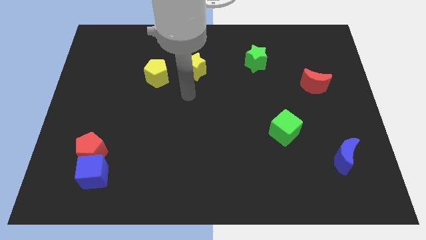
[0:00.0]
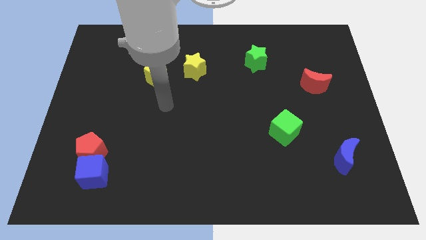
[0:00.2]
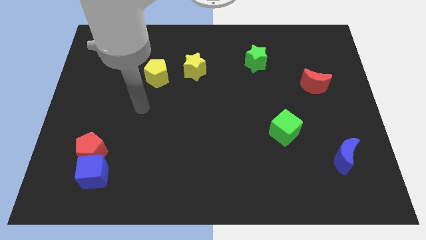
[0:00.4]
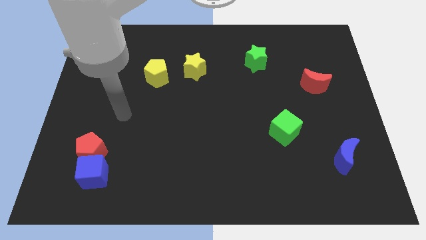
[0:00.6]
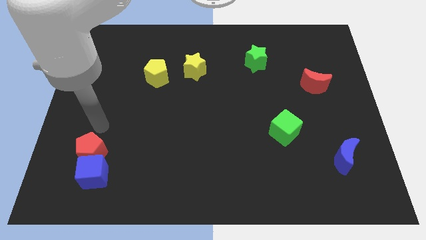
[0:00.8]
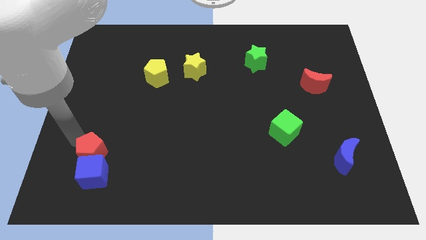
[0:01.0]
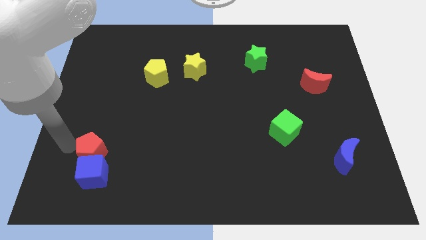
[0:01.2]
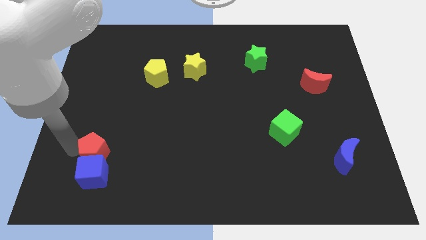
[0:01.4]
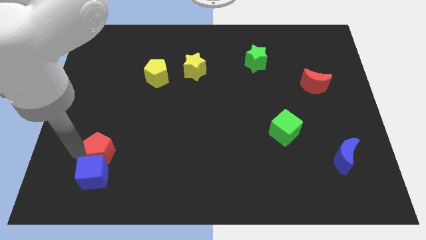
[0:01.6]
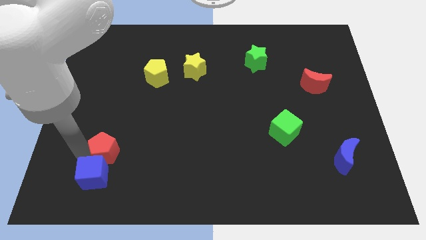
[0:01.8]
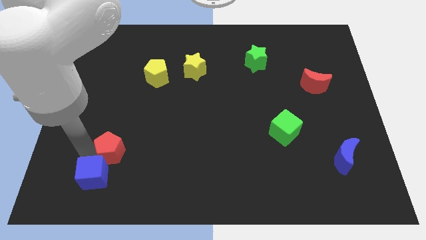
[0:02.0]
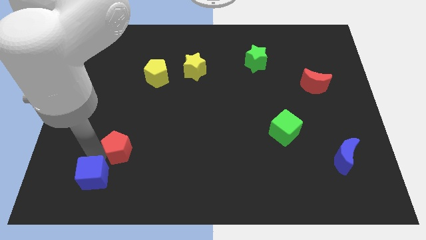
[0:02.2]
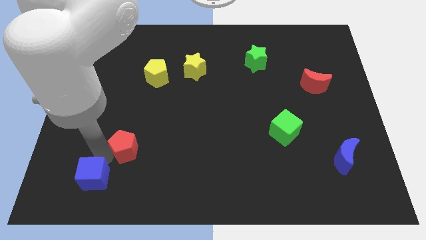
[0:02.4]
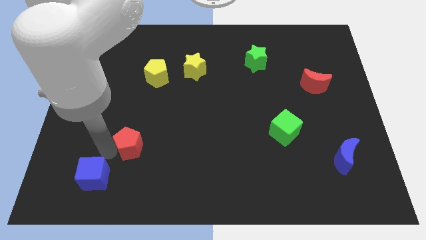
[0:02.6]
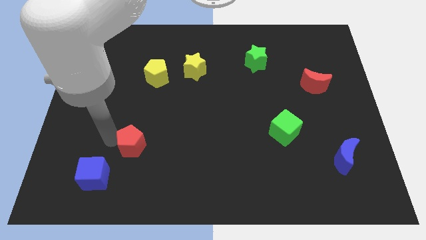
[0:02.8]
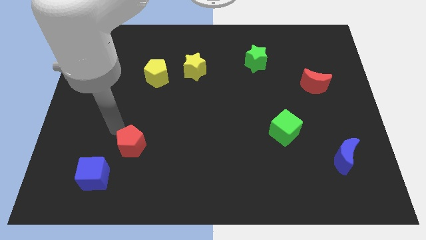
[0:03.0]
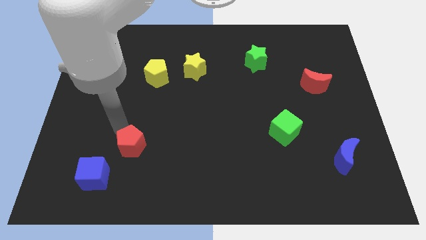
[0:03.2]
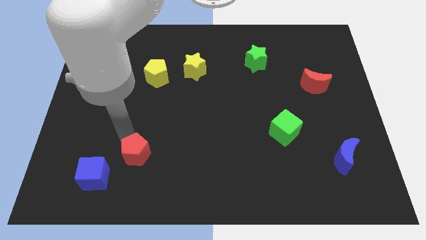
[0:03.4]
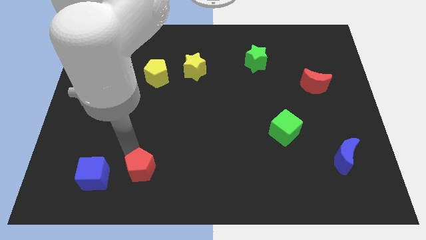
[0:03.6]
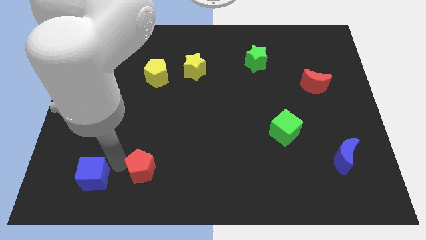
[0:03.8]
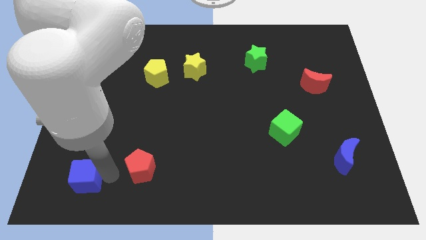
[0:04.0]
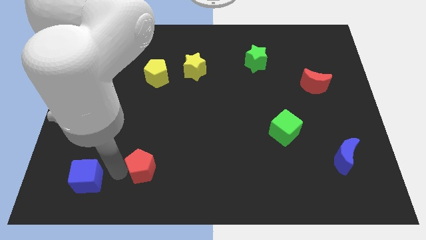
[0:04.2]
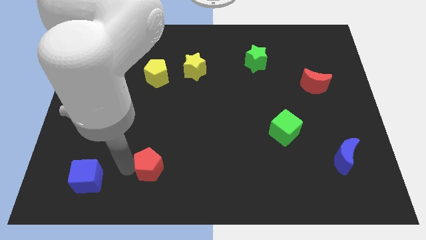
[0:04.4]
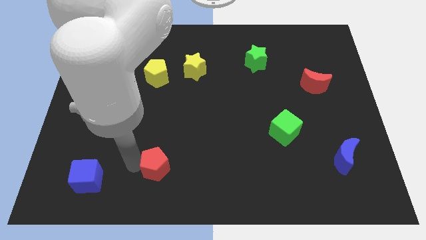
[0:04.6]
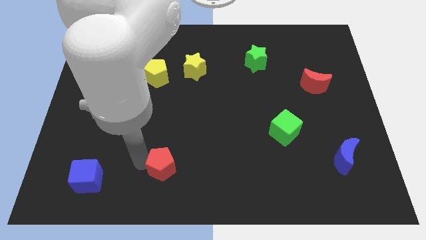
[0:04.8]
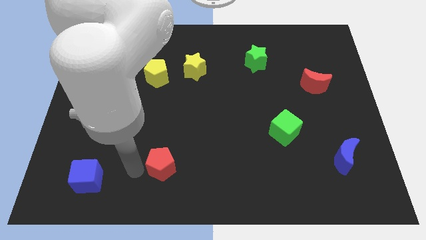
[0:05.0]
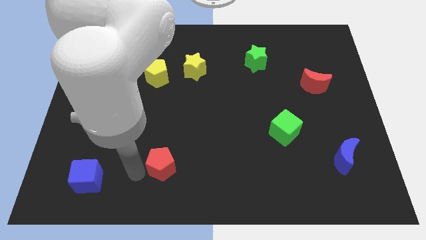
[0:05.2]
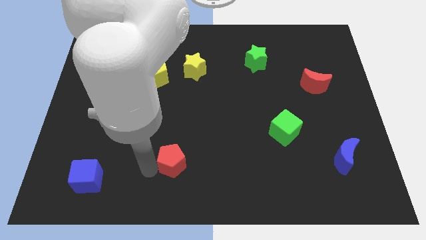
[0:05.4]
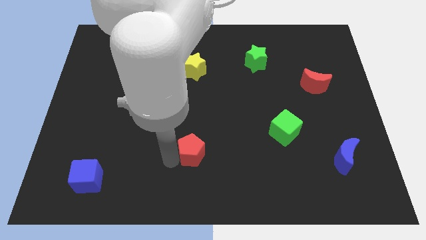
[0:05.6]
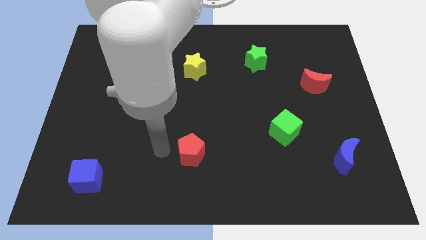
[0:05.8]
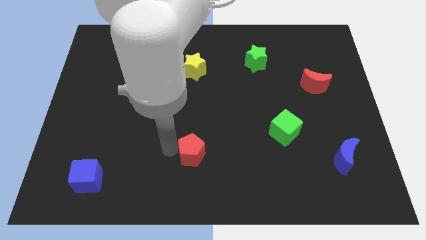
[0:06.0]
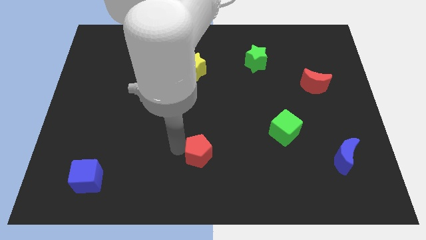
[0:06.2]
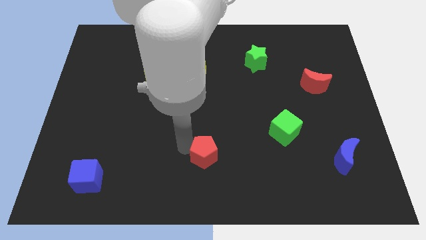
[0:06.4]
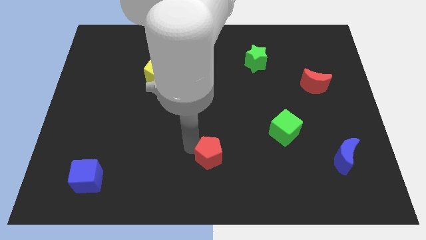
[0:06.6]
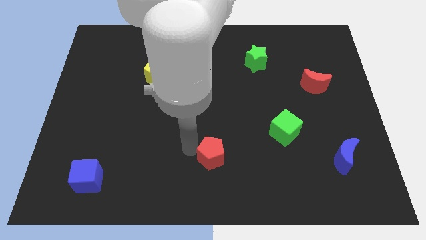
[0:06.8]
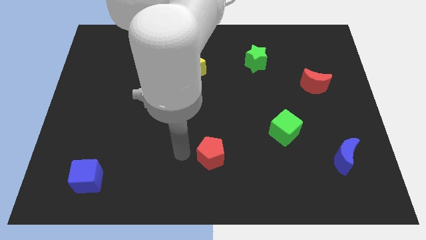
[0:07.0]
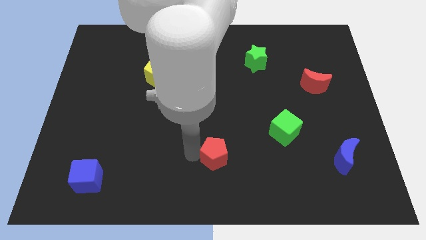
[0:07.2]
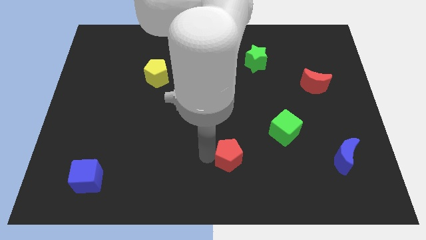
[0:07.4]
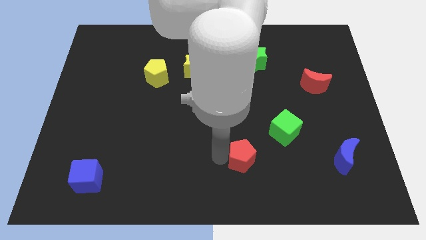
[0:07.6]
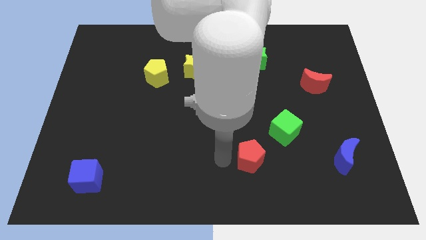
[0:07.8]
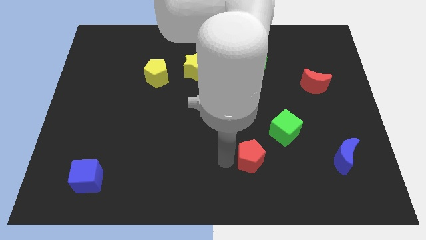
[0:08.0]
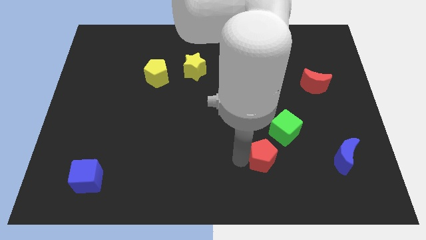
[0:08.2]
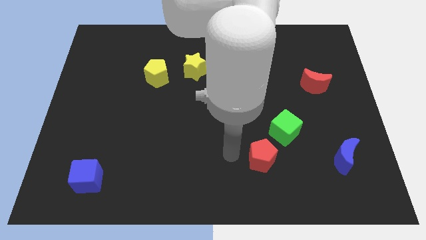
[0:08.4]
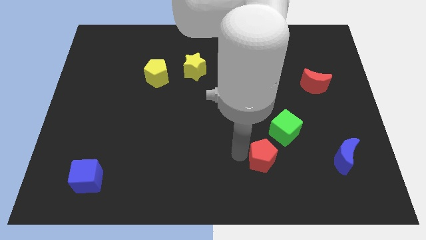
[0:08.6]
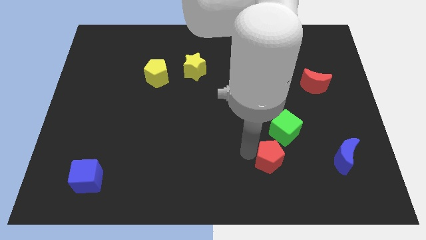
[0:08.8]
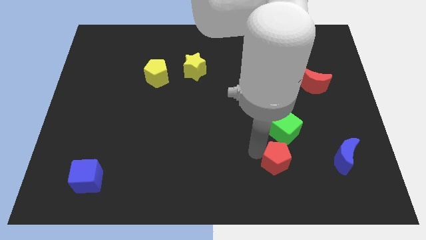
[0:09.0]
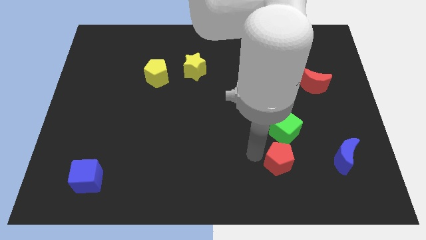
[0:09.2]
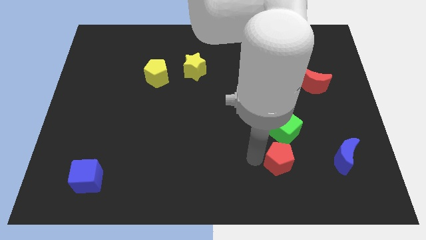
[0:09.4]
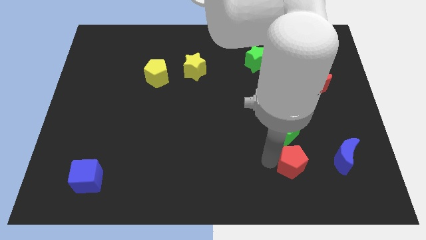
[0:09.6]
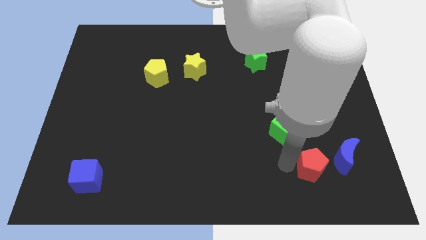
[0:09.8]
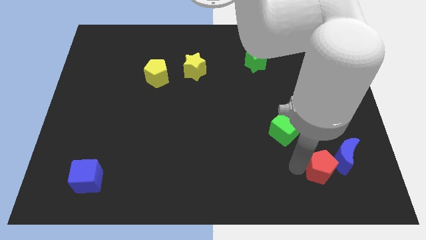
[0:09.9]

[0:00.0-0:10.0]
push the red pentagon next to the blue moon

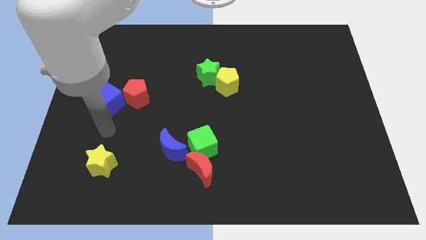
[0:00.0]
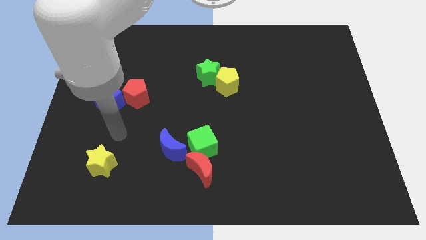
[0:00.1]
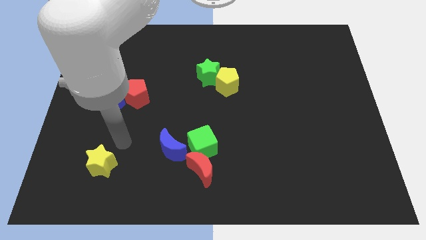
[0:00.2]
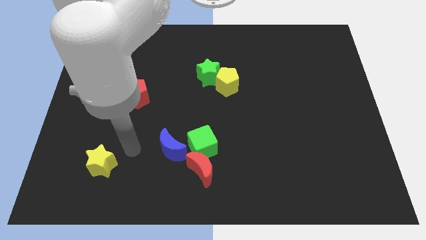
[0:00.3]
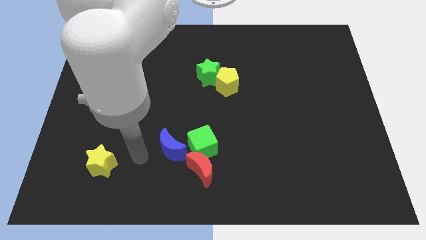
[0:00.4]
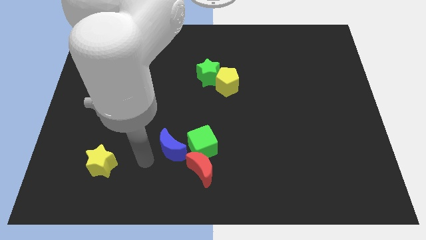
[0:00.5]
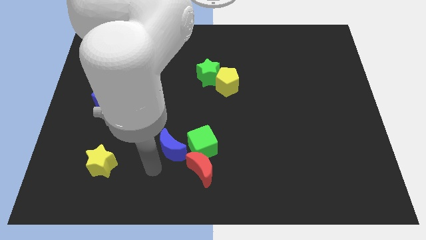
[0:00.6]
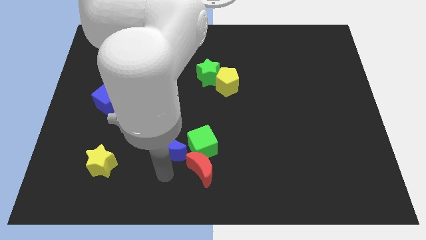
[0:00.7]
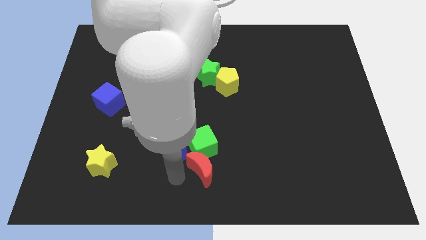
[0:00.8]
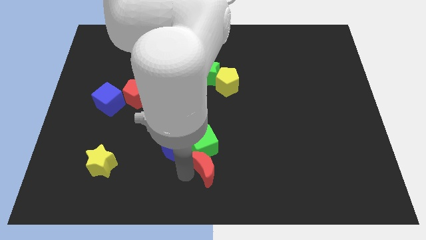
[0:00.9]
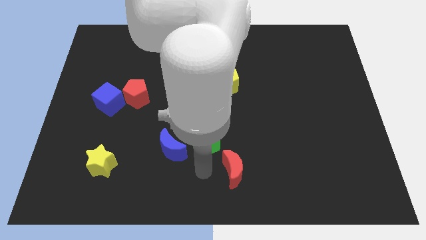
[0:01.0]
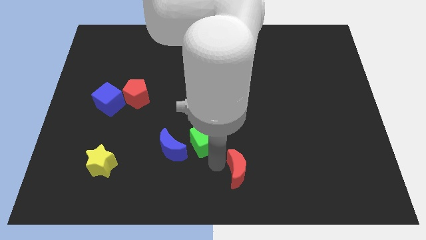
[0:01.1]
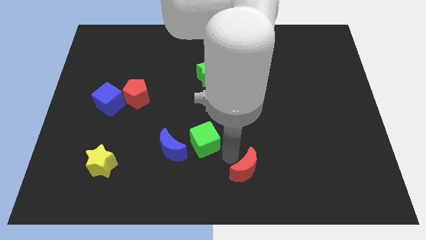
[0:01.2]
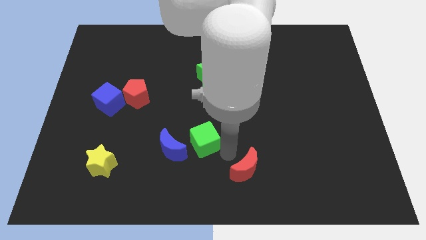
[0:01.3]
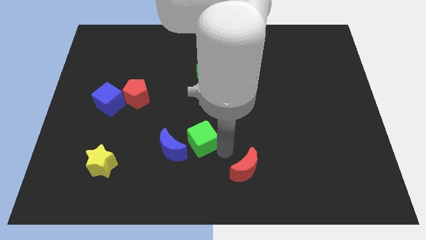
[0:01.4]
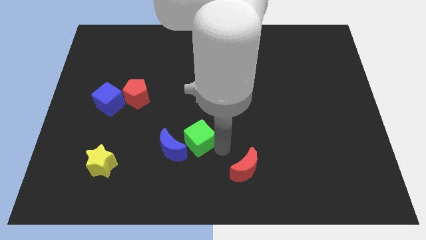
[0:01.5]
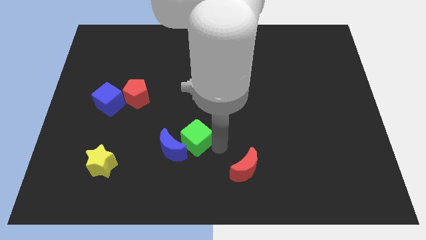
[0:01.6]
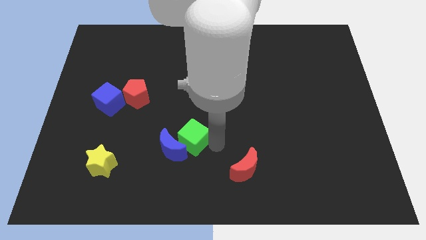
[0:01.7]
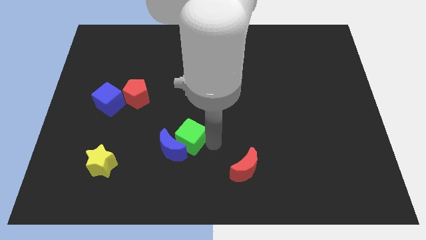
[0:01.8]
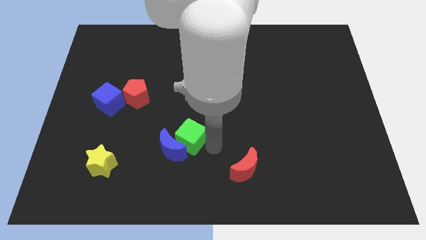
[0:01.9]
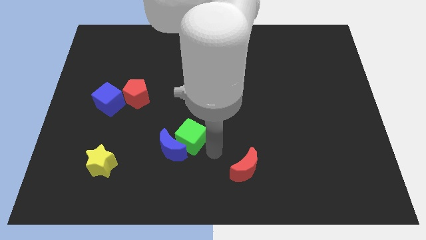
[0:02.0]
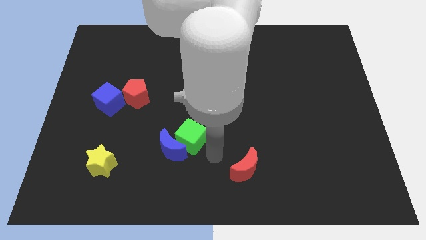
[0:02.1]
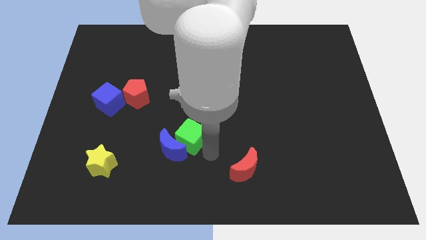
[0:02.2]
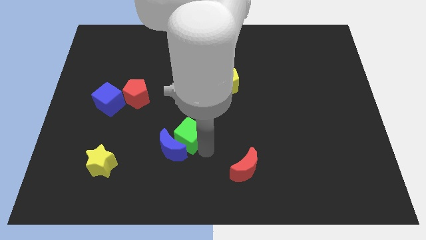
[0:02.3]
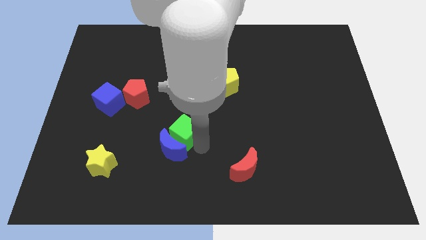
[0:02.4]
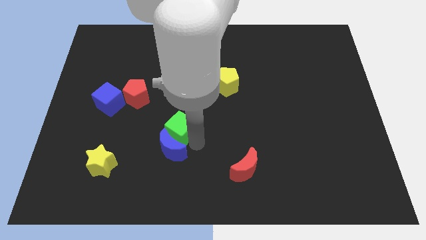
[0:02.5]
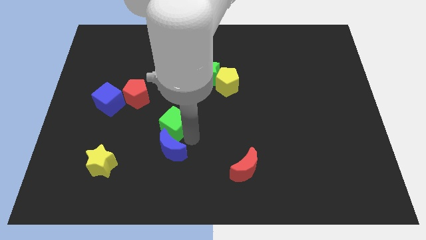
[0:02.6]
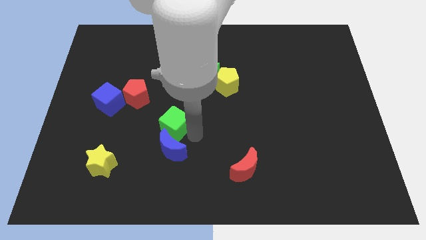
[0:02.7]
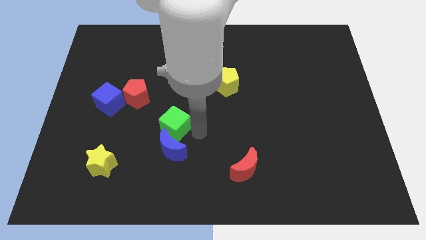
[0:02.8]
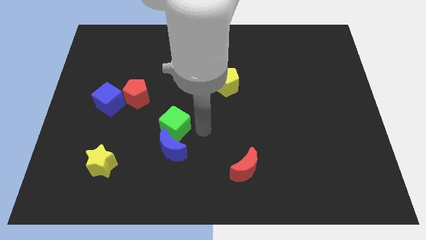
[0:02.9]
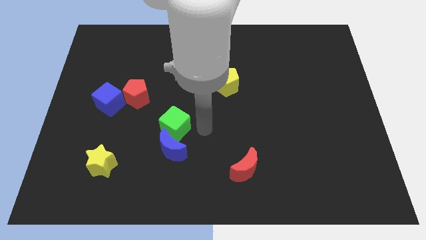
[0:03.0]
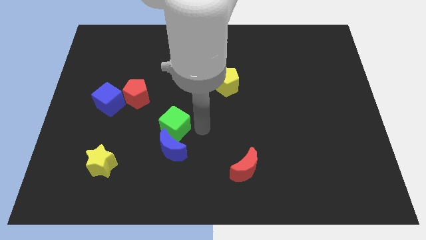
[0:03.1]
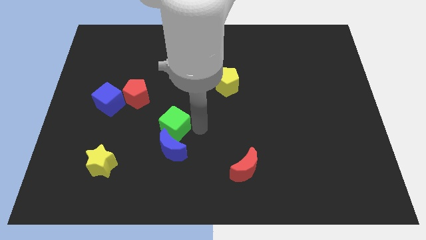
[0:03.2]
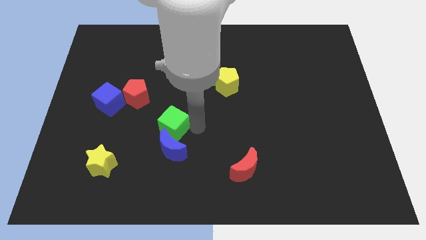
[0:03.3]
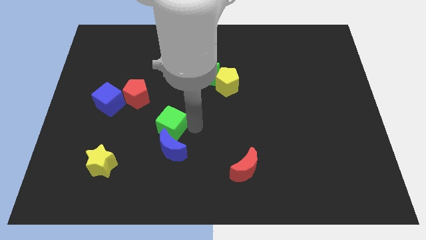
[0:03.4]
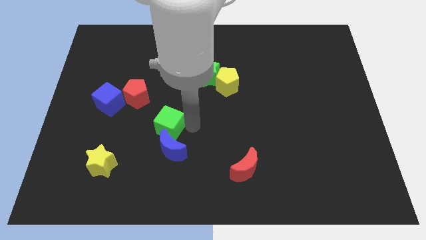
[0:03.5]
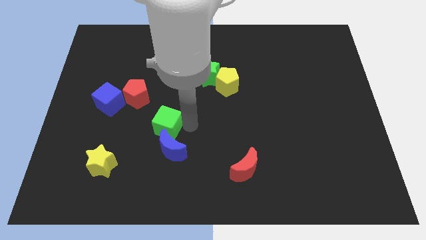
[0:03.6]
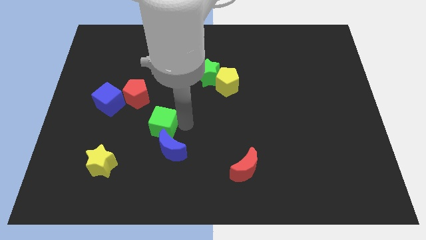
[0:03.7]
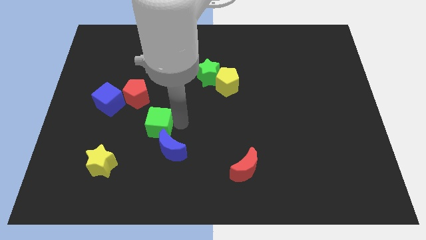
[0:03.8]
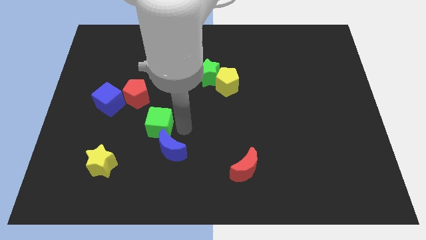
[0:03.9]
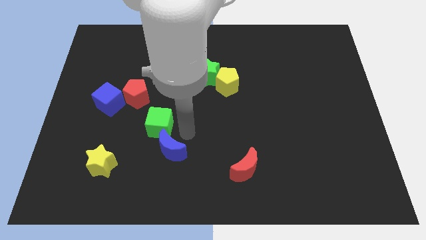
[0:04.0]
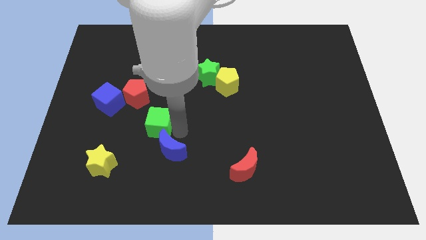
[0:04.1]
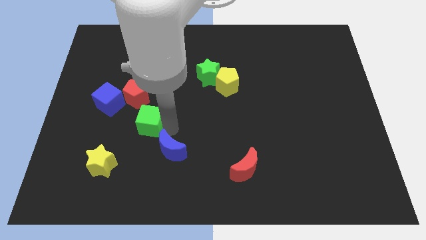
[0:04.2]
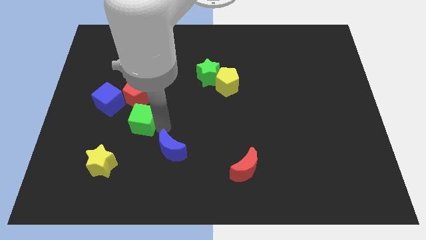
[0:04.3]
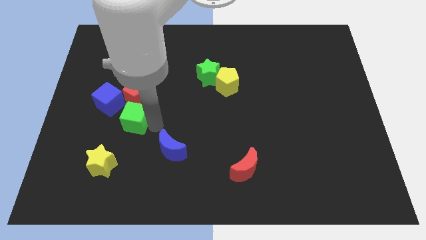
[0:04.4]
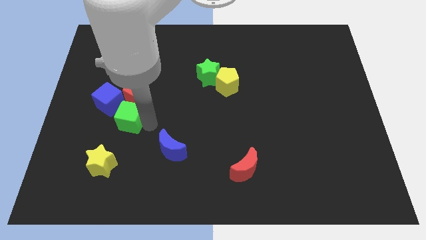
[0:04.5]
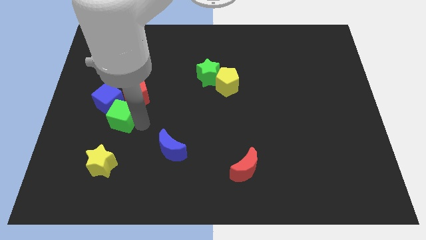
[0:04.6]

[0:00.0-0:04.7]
put the green cube close to the blue cube
